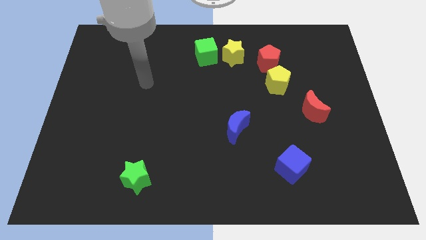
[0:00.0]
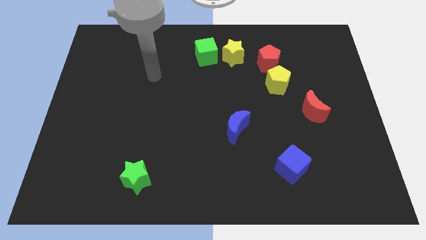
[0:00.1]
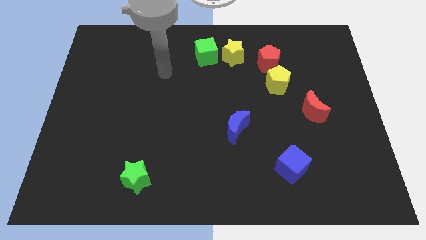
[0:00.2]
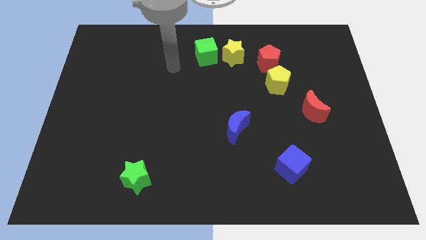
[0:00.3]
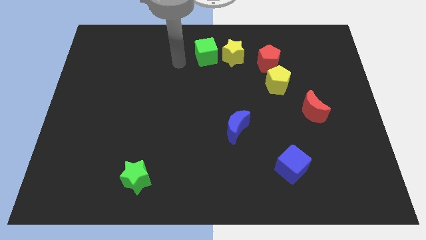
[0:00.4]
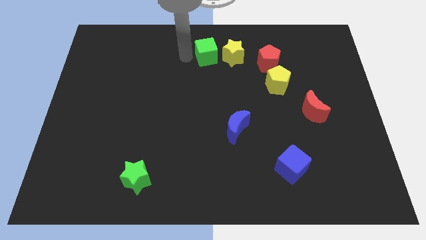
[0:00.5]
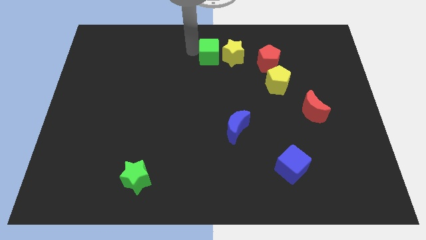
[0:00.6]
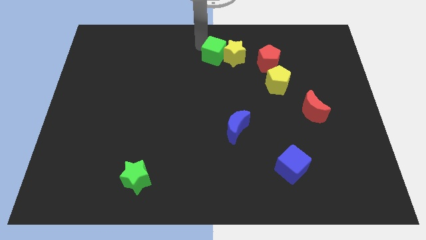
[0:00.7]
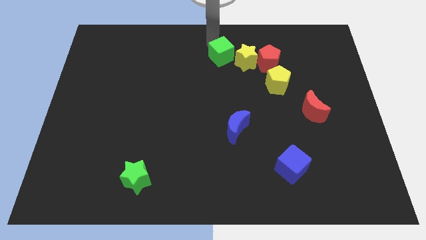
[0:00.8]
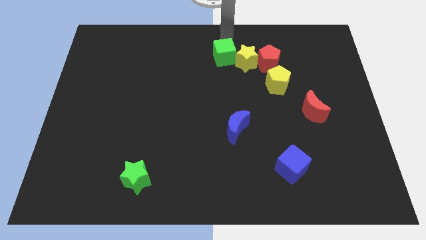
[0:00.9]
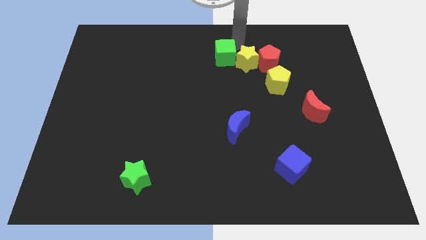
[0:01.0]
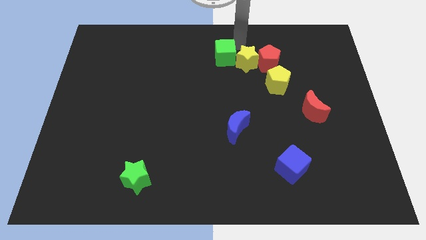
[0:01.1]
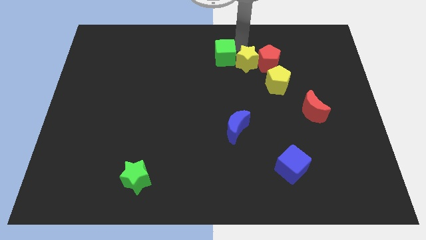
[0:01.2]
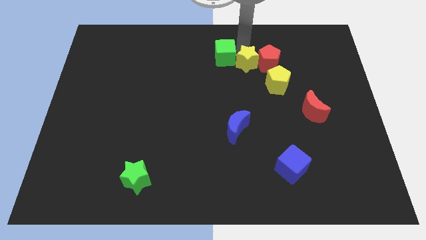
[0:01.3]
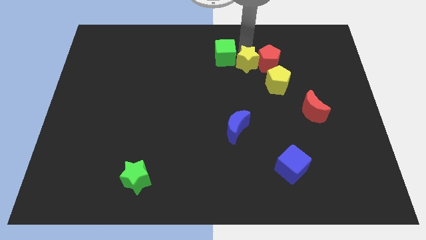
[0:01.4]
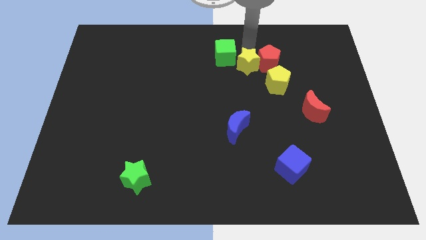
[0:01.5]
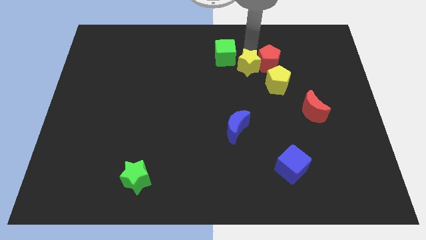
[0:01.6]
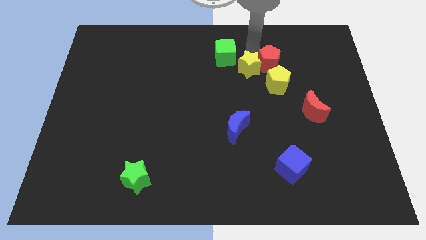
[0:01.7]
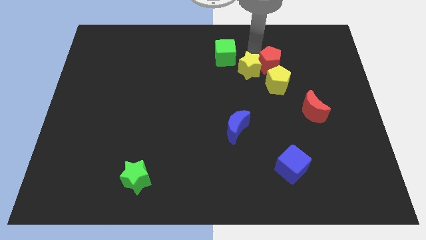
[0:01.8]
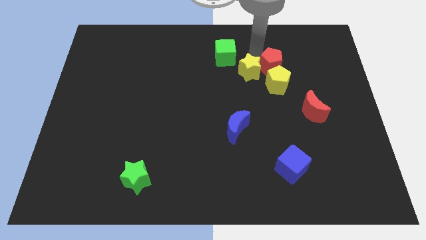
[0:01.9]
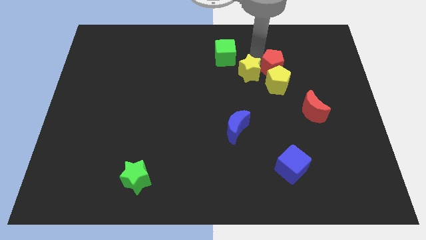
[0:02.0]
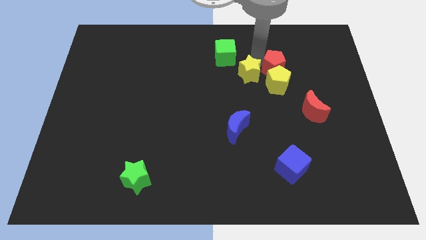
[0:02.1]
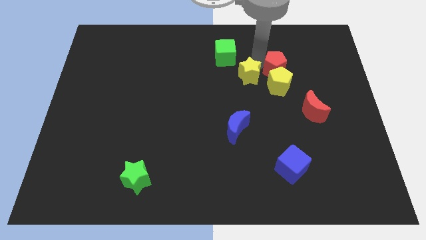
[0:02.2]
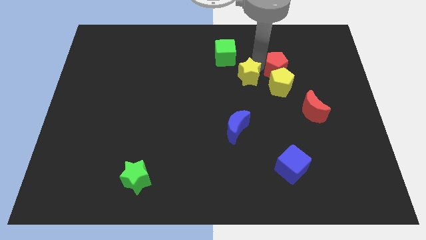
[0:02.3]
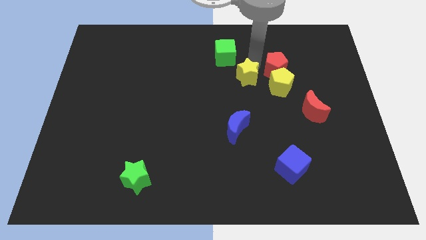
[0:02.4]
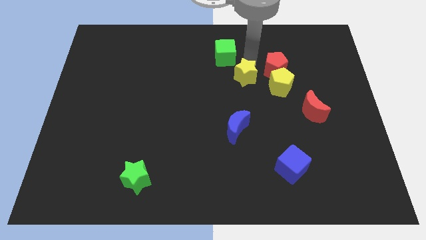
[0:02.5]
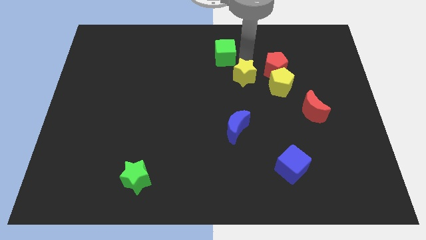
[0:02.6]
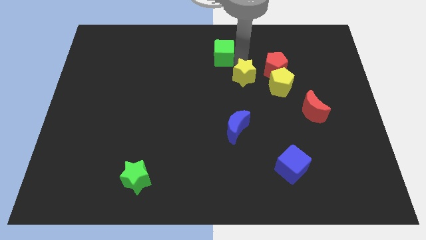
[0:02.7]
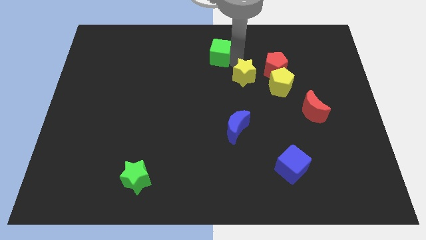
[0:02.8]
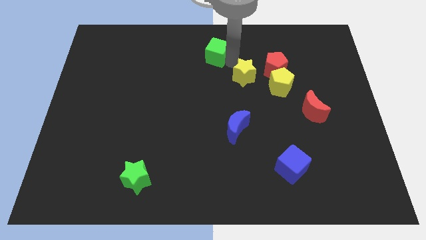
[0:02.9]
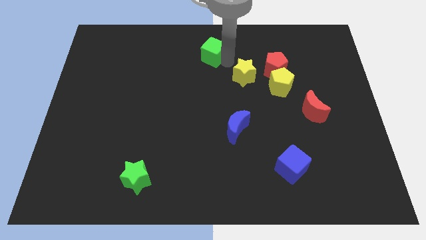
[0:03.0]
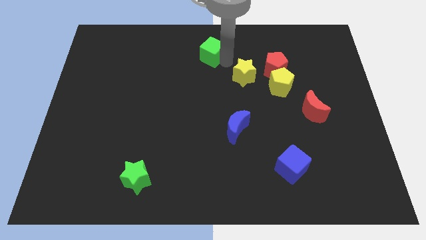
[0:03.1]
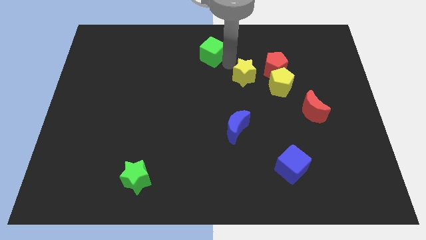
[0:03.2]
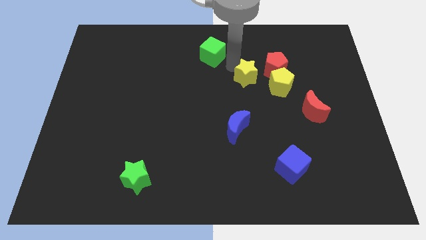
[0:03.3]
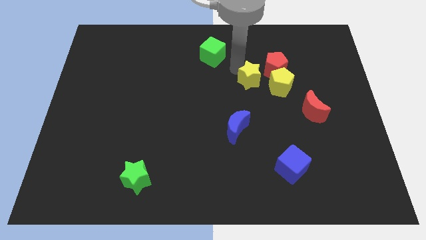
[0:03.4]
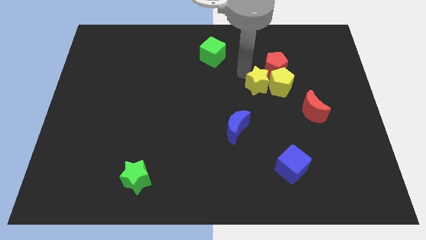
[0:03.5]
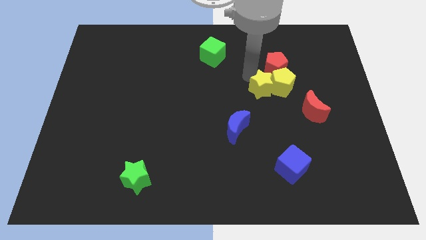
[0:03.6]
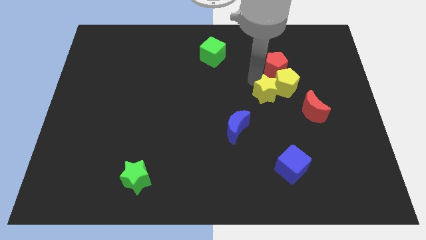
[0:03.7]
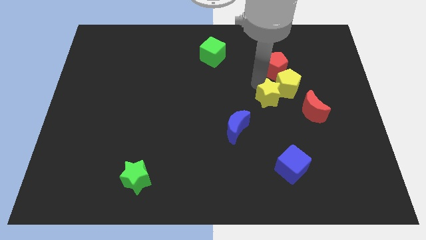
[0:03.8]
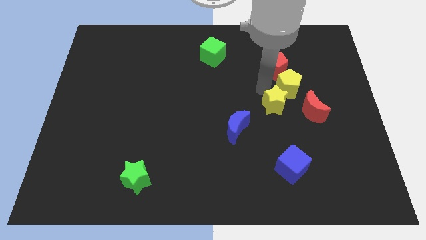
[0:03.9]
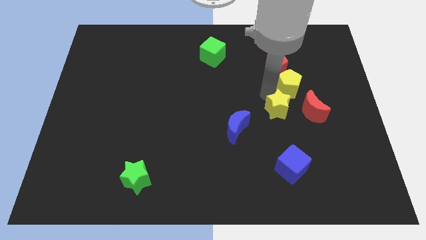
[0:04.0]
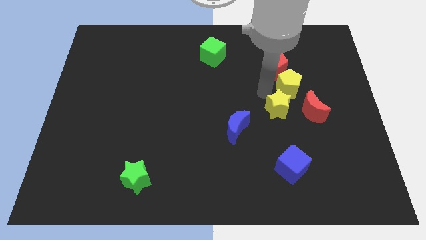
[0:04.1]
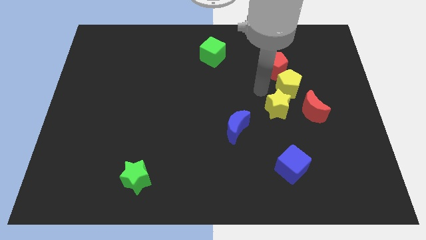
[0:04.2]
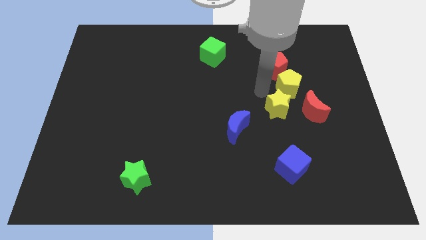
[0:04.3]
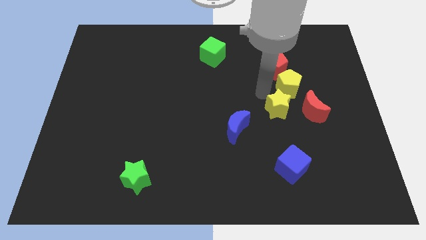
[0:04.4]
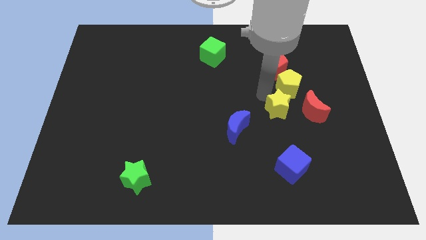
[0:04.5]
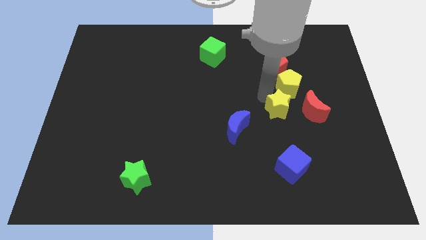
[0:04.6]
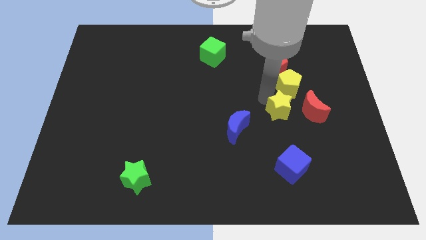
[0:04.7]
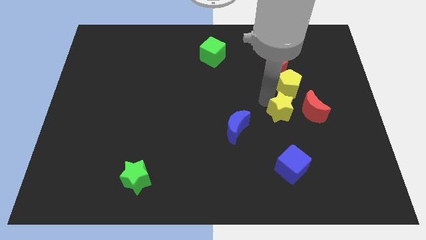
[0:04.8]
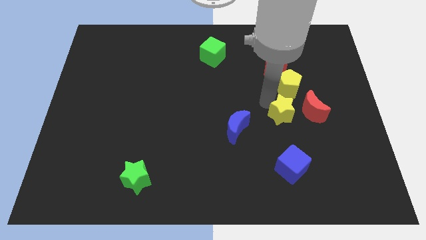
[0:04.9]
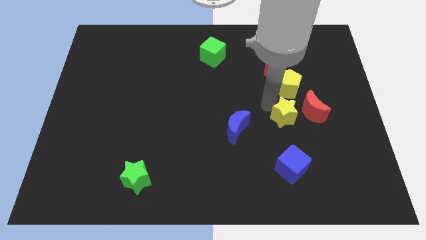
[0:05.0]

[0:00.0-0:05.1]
slide the yellow star diagonally downwards and right

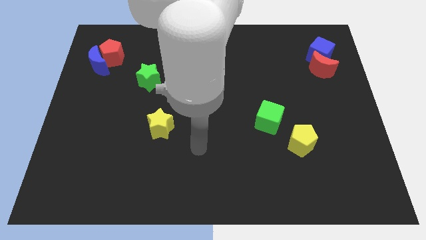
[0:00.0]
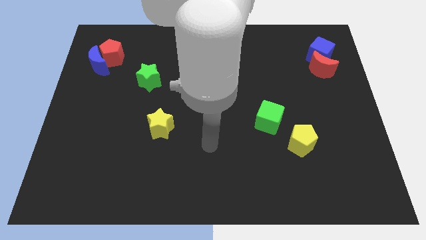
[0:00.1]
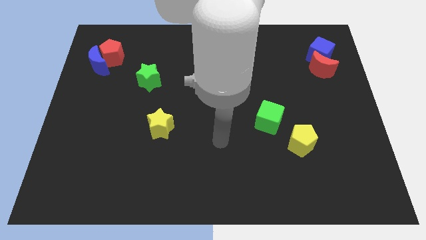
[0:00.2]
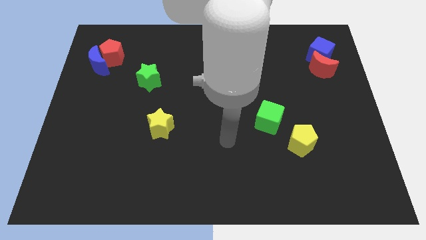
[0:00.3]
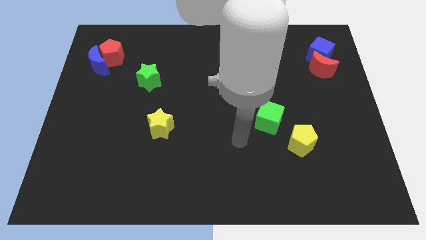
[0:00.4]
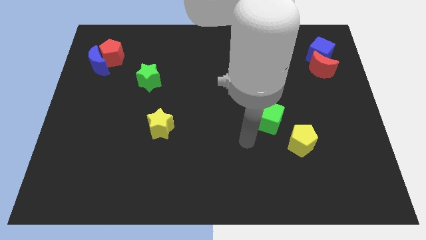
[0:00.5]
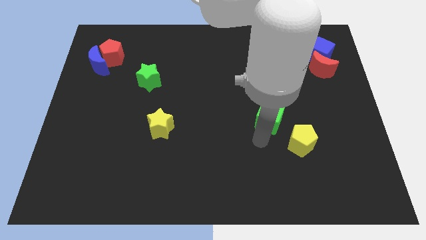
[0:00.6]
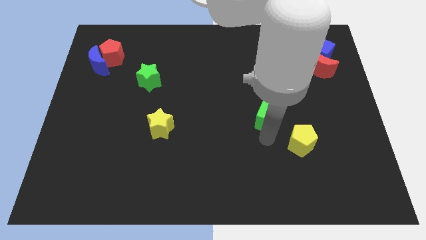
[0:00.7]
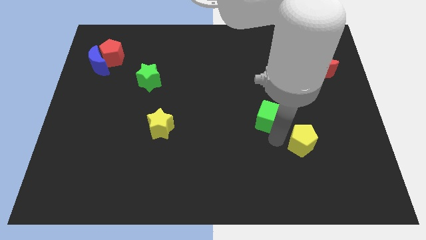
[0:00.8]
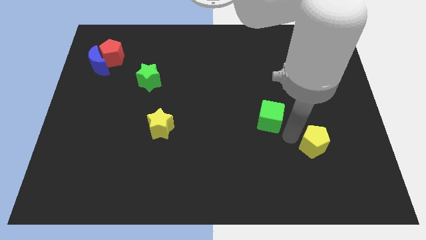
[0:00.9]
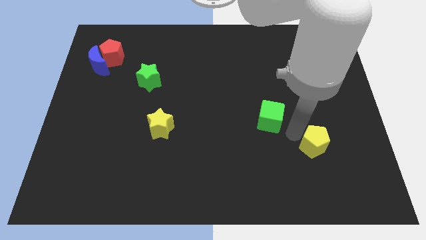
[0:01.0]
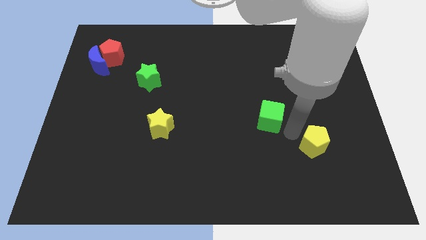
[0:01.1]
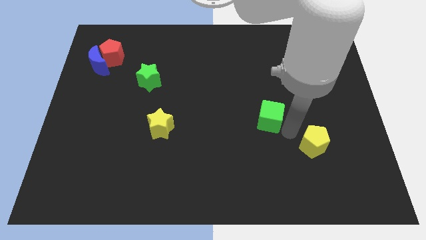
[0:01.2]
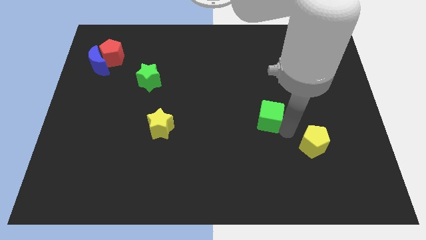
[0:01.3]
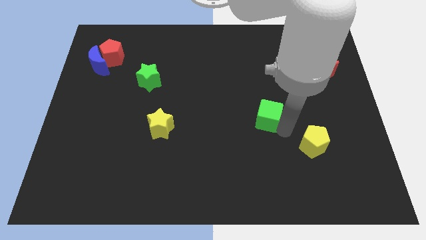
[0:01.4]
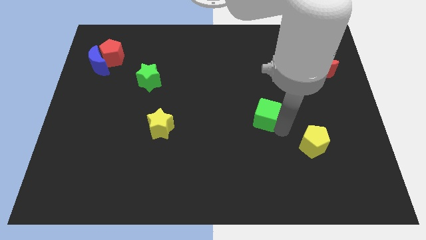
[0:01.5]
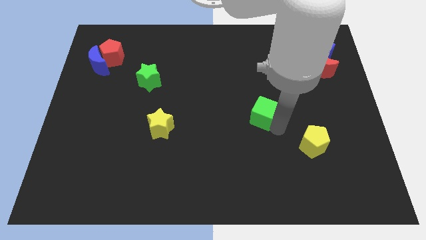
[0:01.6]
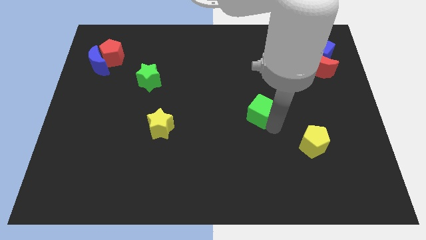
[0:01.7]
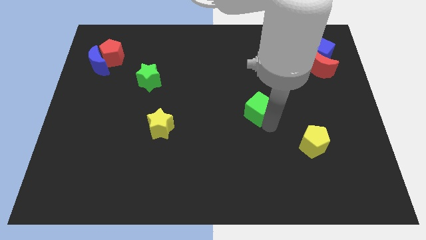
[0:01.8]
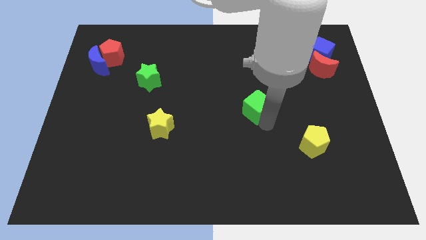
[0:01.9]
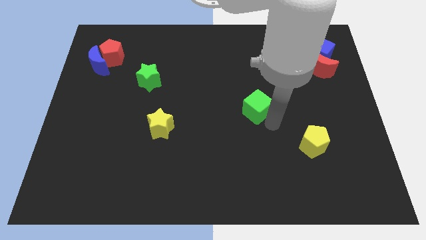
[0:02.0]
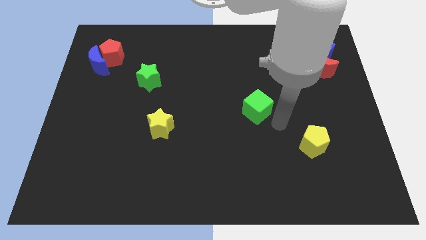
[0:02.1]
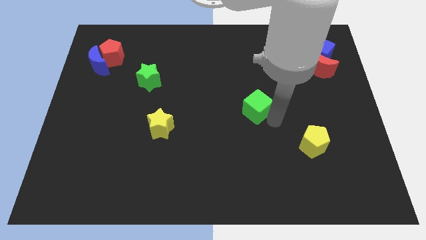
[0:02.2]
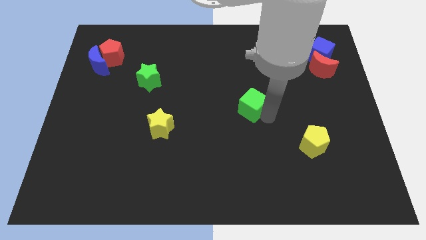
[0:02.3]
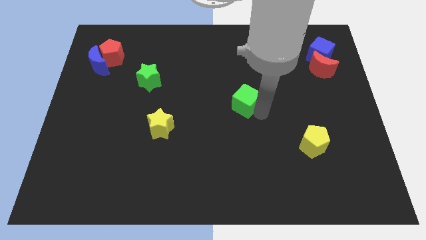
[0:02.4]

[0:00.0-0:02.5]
slide the green cube upwards and then to the left slightly

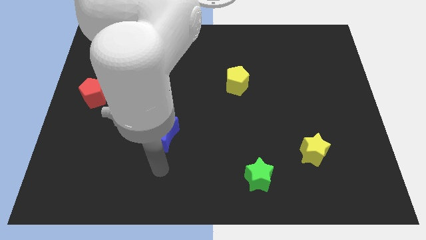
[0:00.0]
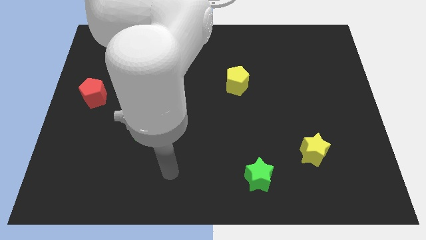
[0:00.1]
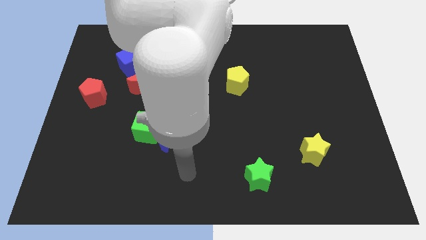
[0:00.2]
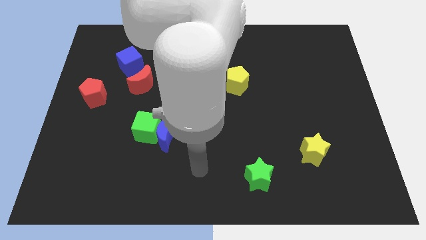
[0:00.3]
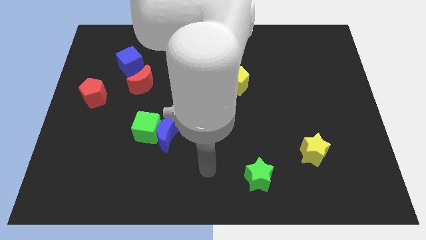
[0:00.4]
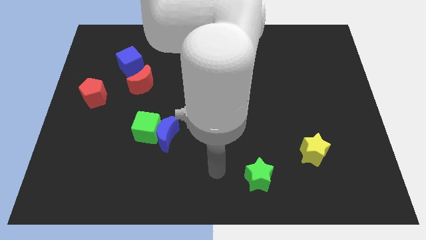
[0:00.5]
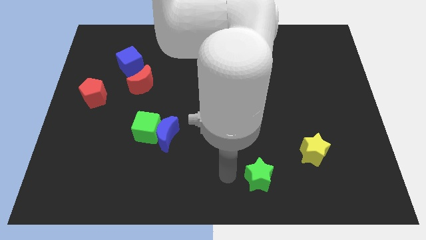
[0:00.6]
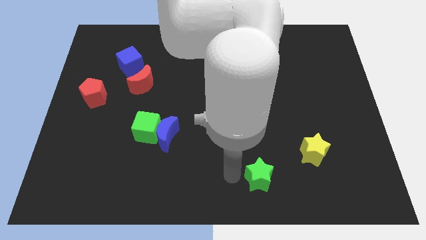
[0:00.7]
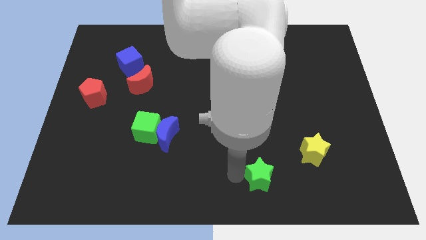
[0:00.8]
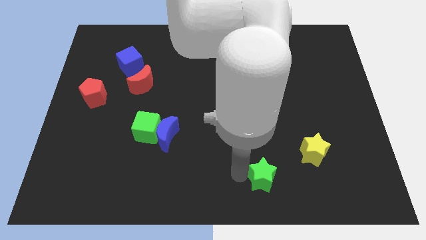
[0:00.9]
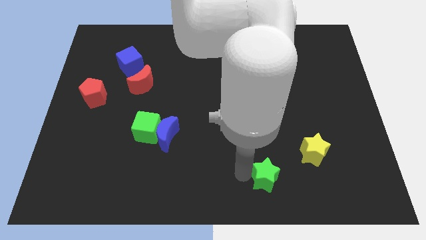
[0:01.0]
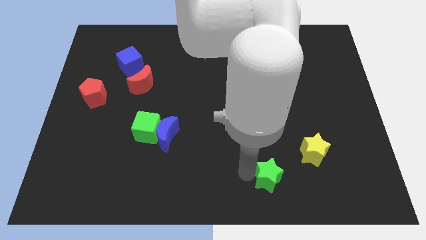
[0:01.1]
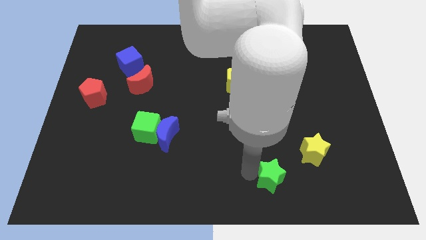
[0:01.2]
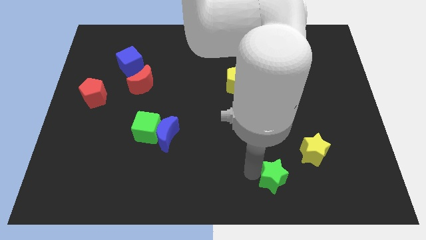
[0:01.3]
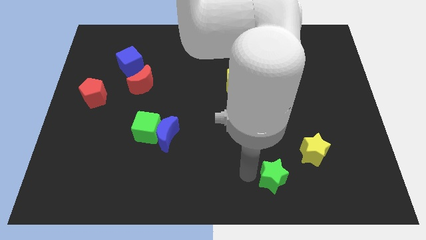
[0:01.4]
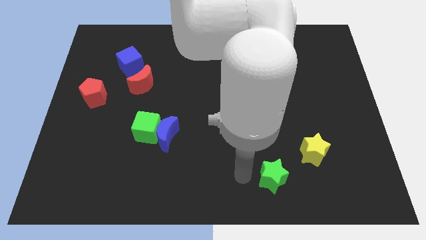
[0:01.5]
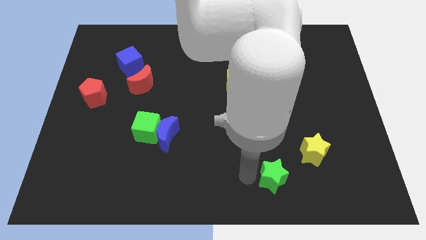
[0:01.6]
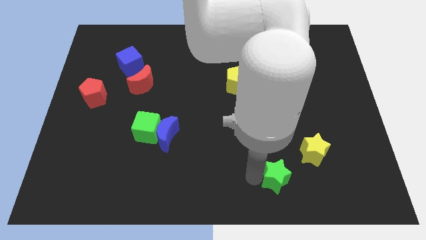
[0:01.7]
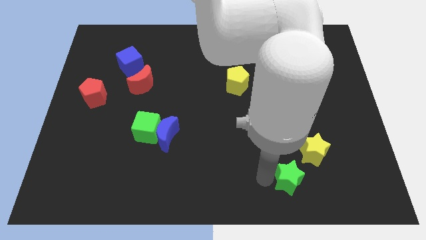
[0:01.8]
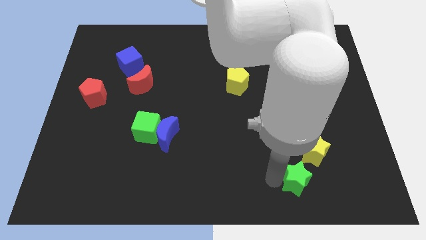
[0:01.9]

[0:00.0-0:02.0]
push the green star to the right a bit
